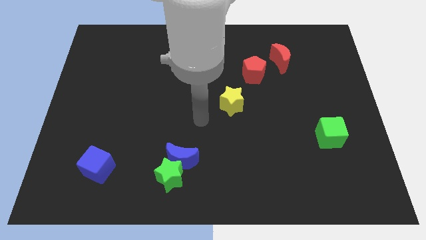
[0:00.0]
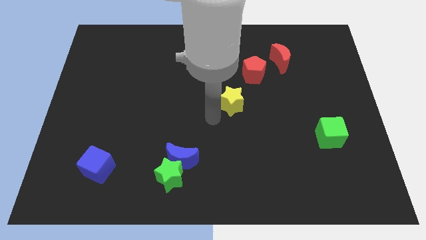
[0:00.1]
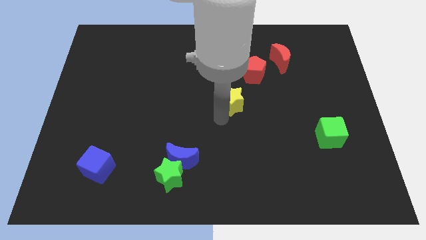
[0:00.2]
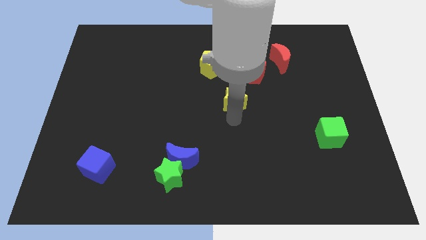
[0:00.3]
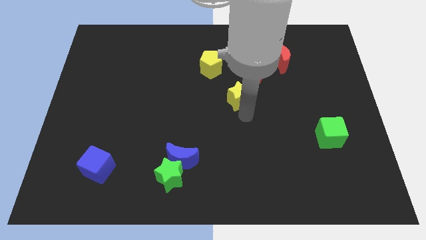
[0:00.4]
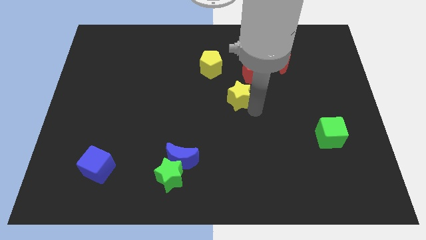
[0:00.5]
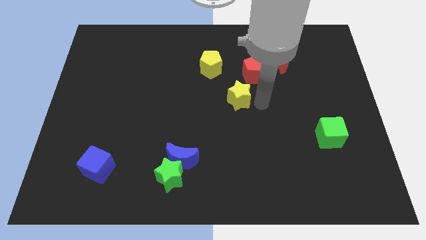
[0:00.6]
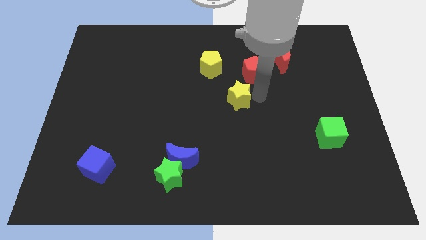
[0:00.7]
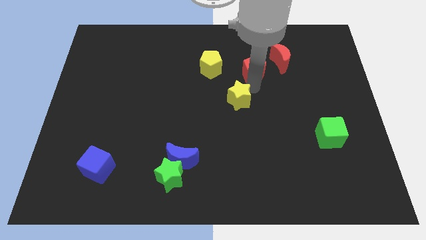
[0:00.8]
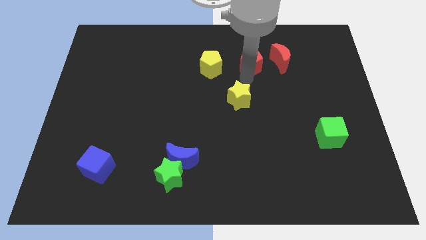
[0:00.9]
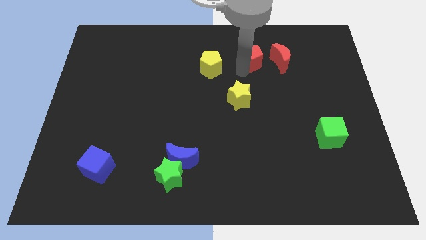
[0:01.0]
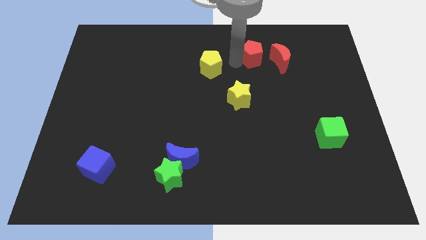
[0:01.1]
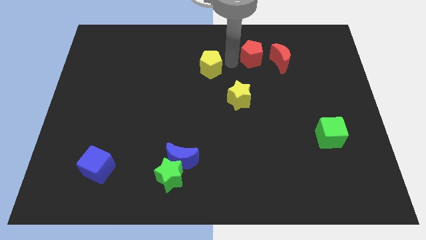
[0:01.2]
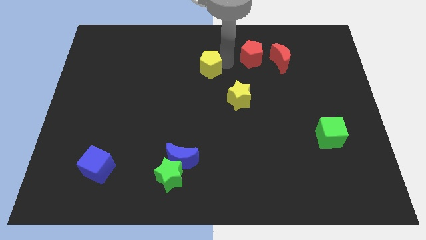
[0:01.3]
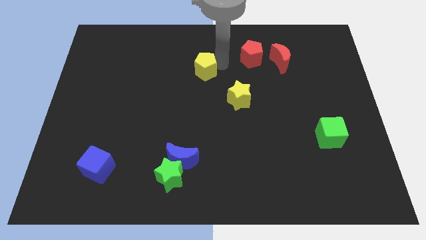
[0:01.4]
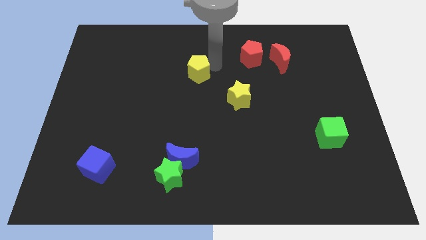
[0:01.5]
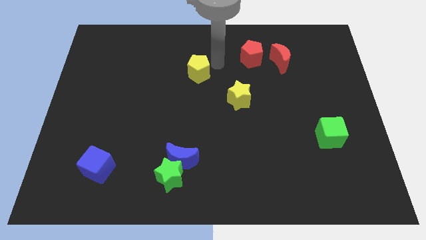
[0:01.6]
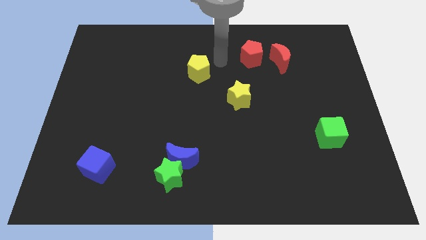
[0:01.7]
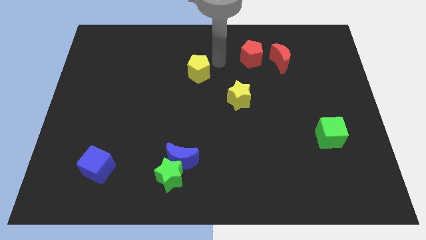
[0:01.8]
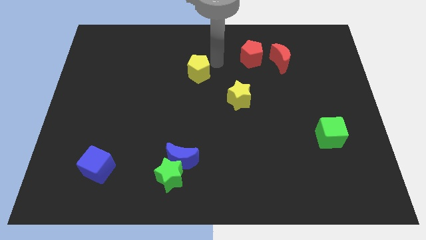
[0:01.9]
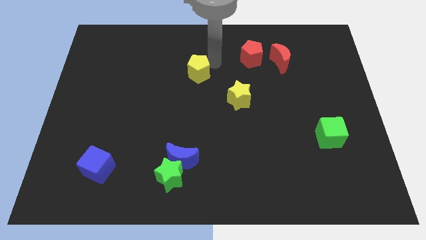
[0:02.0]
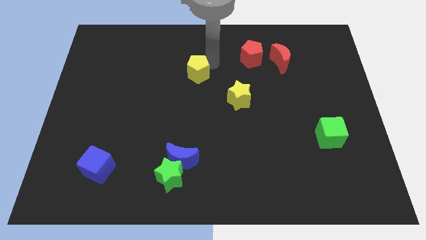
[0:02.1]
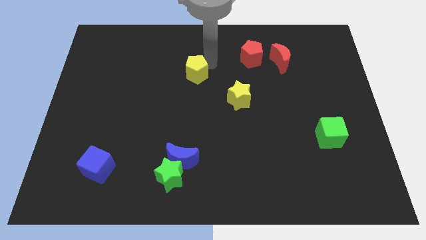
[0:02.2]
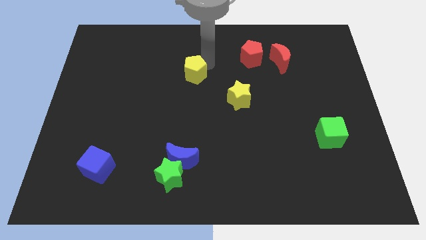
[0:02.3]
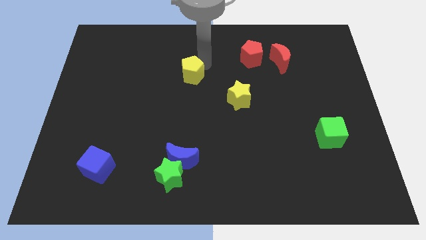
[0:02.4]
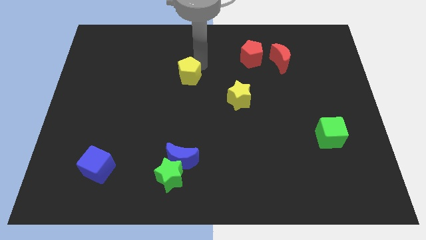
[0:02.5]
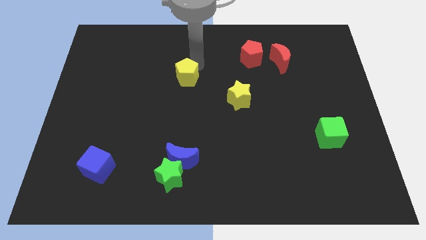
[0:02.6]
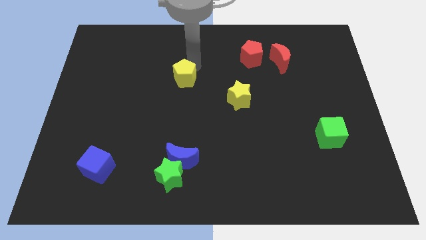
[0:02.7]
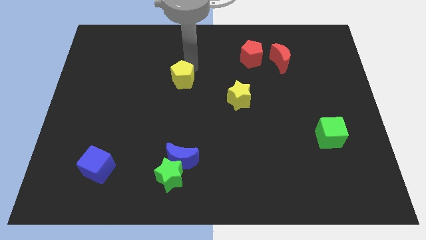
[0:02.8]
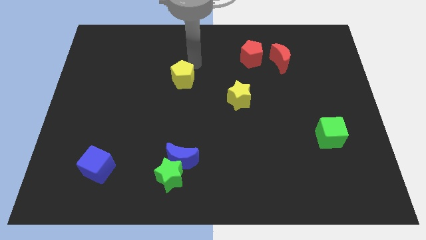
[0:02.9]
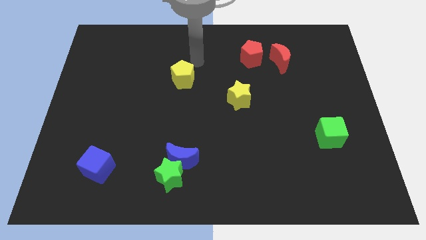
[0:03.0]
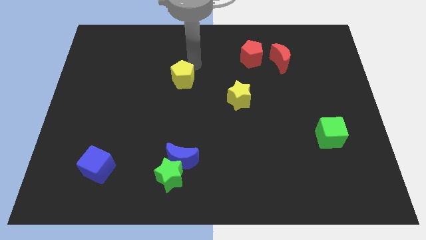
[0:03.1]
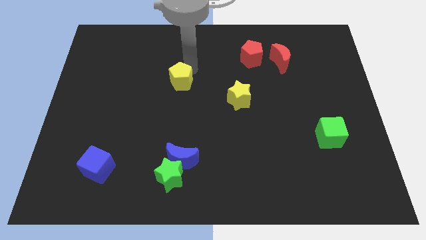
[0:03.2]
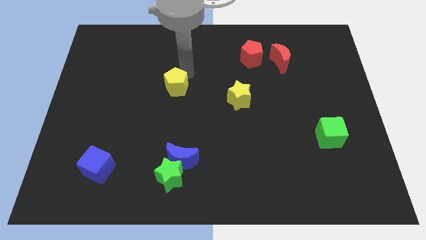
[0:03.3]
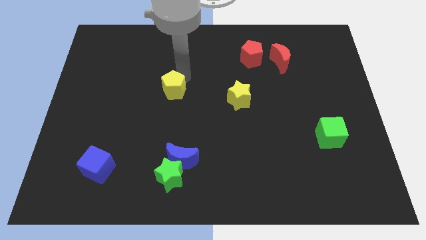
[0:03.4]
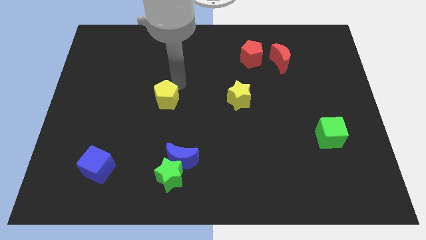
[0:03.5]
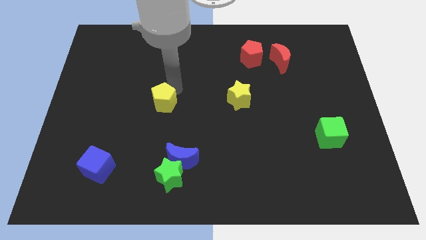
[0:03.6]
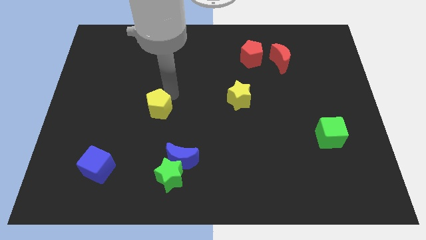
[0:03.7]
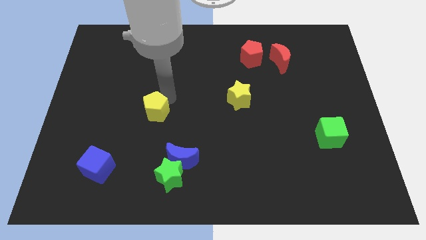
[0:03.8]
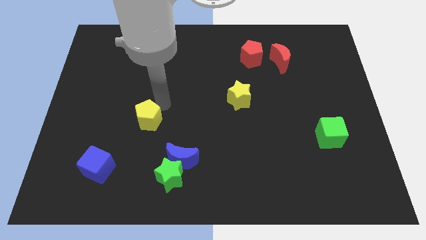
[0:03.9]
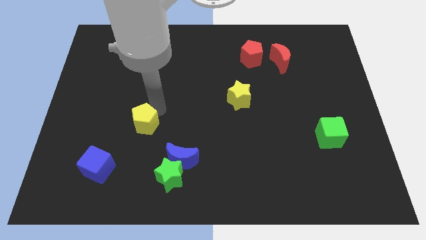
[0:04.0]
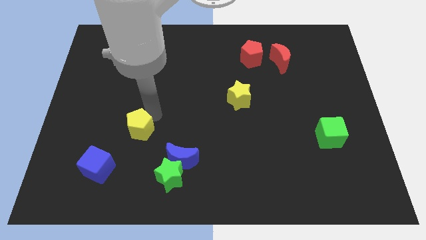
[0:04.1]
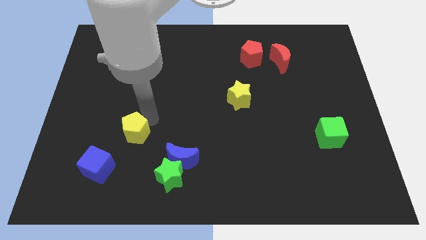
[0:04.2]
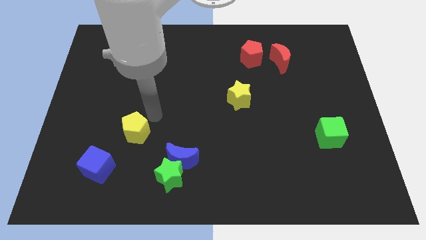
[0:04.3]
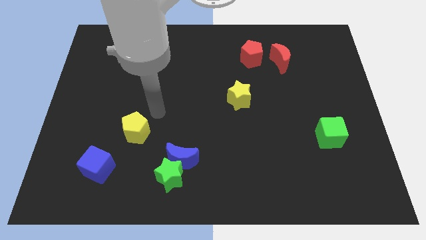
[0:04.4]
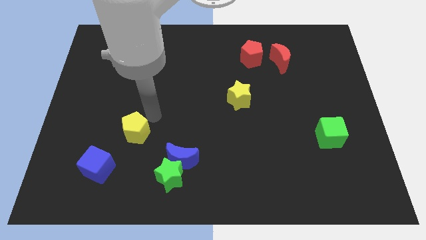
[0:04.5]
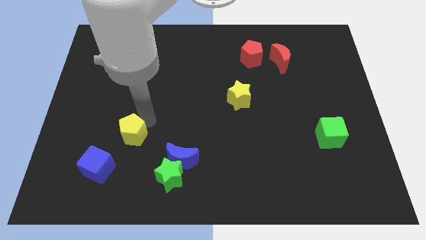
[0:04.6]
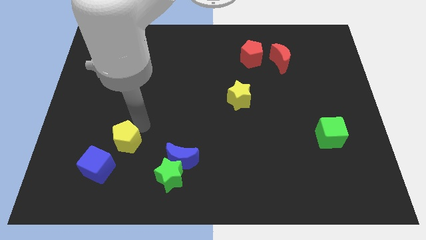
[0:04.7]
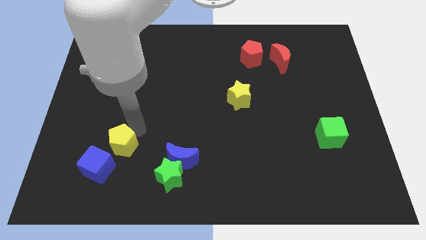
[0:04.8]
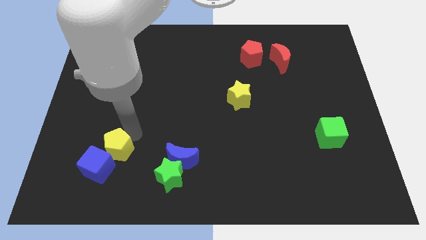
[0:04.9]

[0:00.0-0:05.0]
put the yellow pentagon next to the blue cube

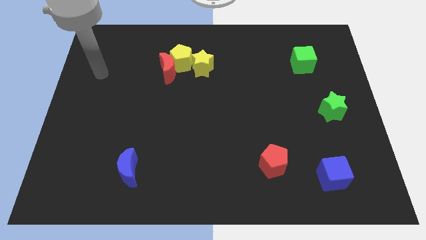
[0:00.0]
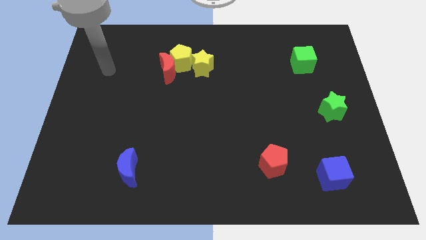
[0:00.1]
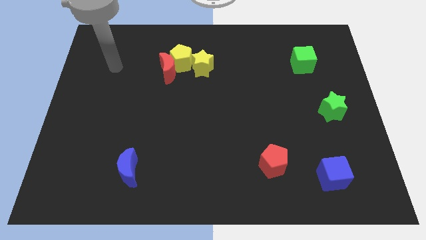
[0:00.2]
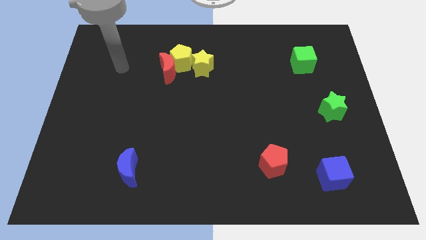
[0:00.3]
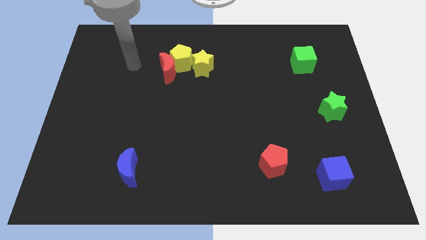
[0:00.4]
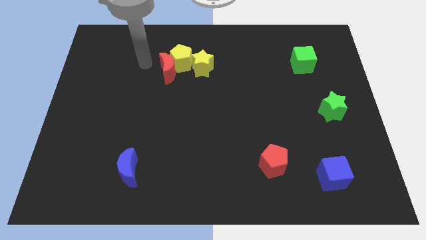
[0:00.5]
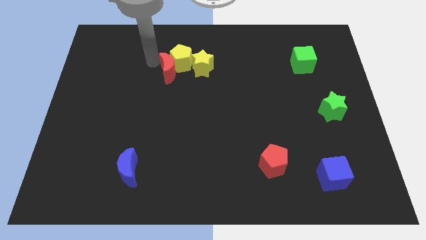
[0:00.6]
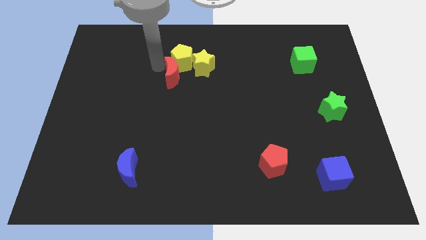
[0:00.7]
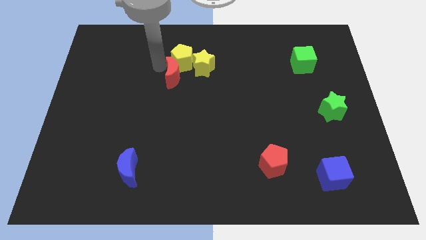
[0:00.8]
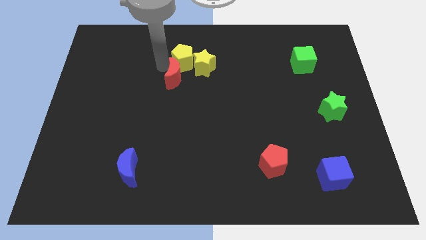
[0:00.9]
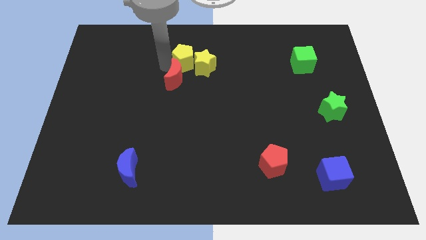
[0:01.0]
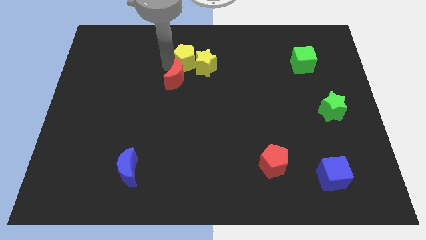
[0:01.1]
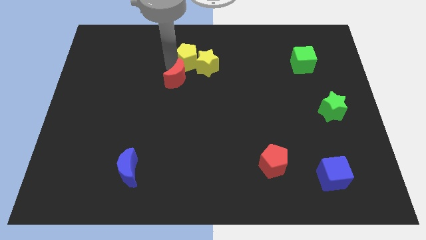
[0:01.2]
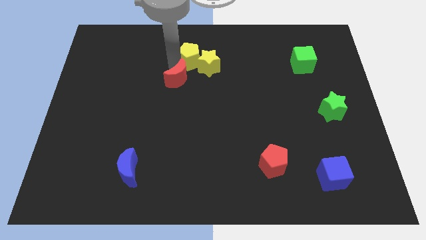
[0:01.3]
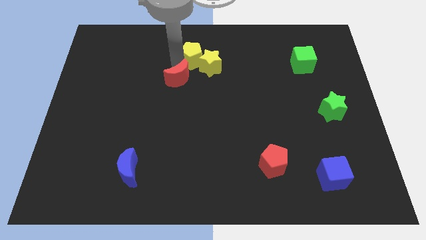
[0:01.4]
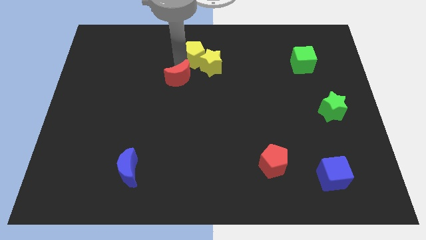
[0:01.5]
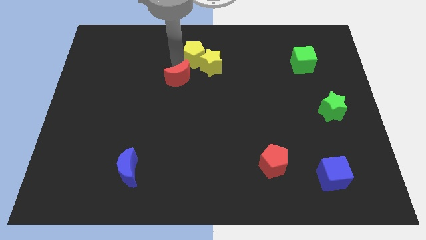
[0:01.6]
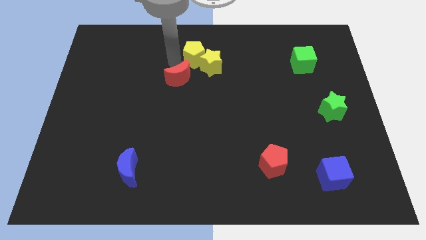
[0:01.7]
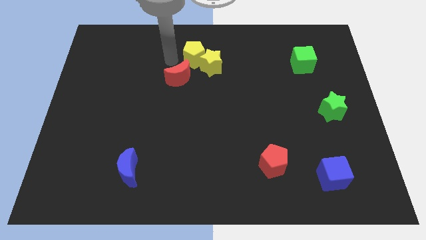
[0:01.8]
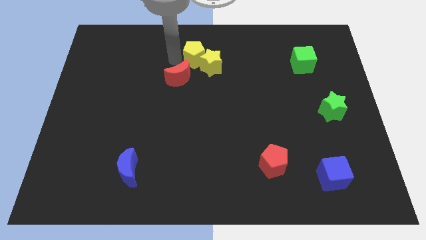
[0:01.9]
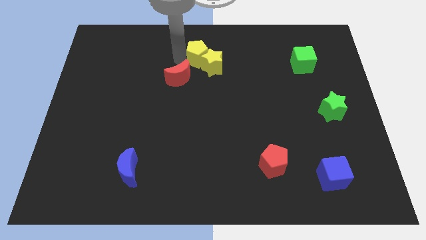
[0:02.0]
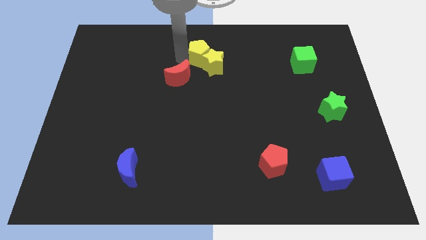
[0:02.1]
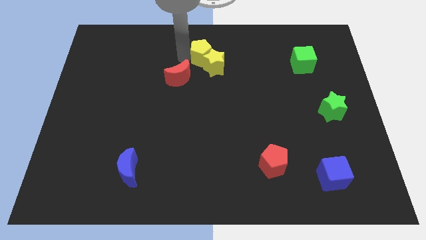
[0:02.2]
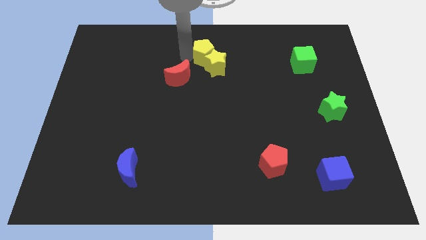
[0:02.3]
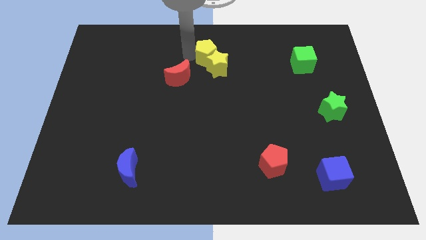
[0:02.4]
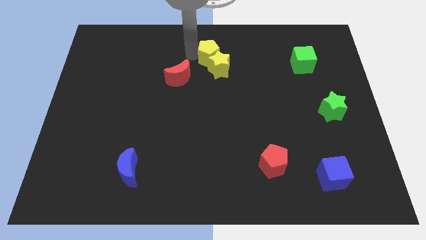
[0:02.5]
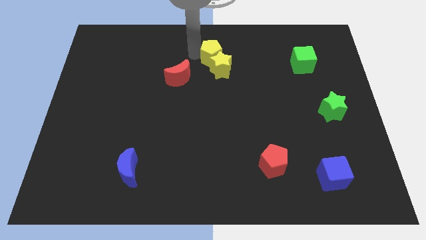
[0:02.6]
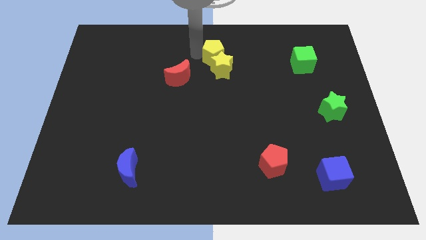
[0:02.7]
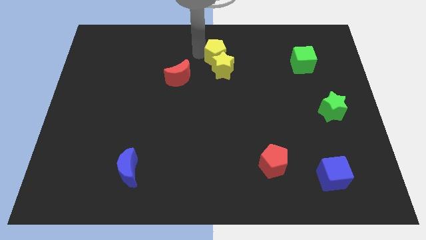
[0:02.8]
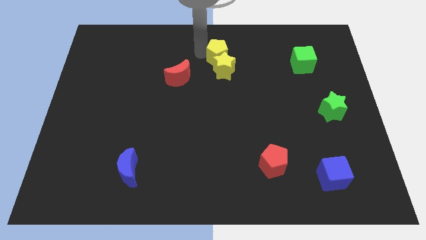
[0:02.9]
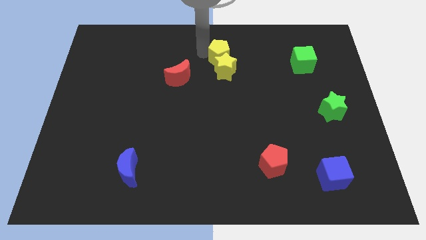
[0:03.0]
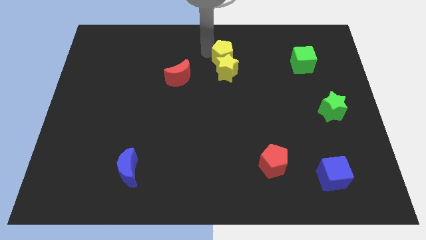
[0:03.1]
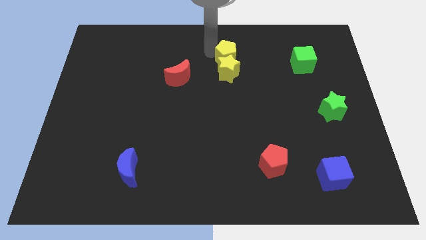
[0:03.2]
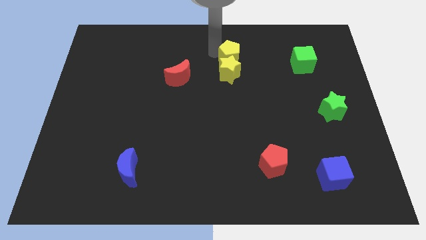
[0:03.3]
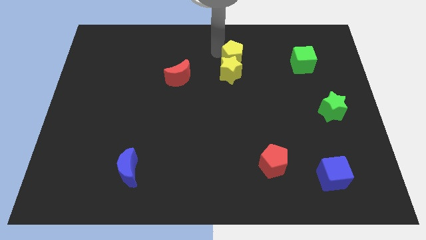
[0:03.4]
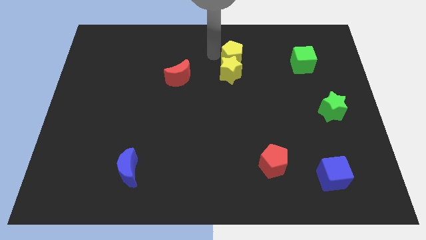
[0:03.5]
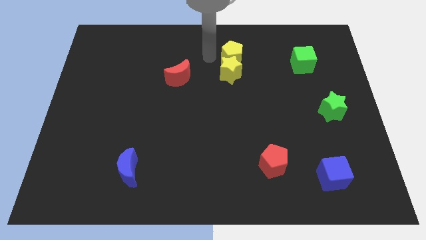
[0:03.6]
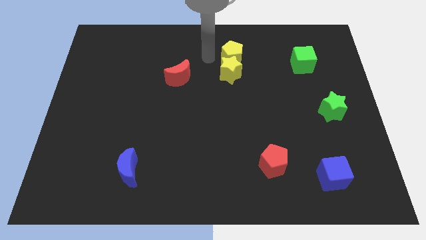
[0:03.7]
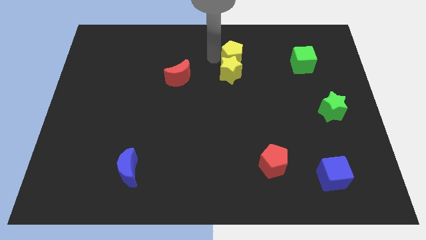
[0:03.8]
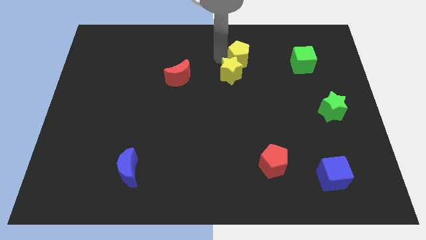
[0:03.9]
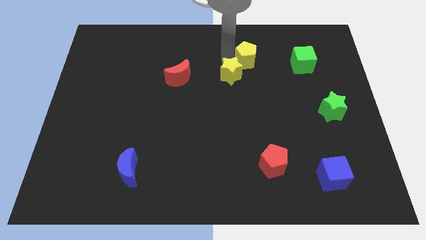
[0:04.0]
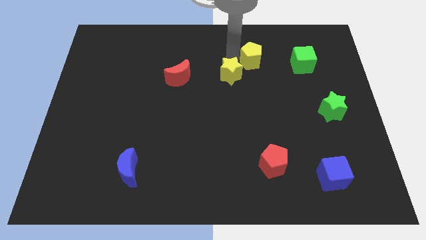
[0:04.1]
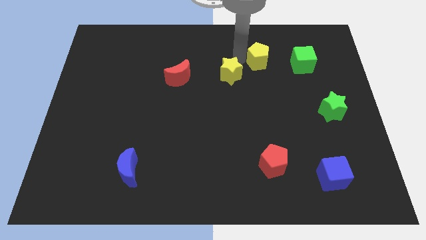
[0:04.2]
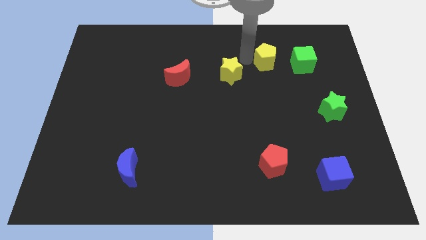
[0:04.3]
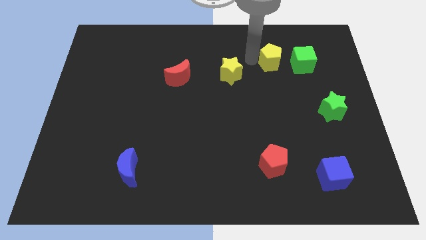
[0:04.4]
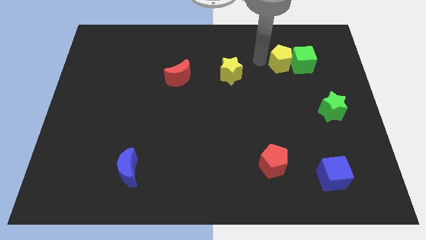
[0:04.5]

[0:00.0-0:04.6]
move the yellow pentagon to the green cube
